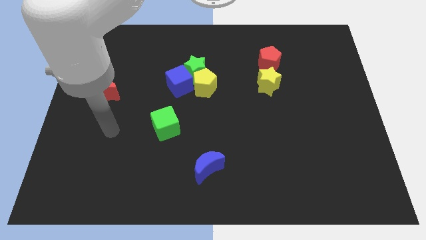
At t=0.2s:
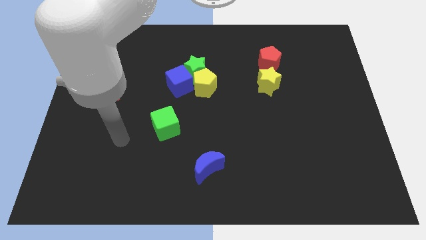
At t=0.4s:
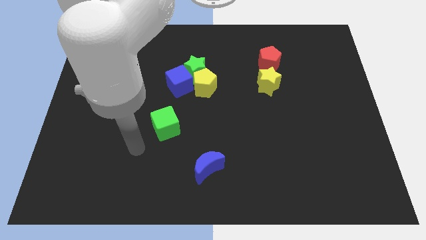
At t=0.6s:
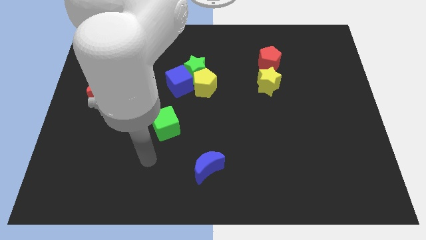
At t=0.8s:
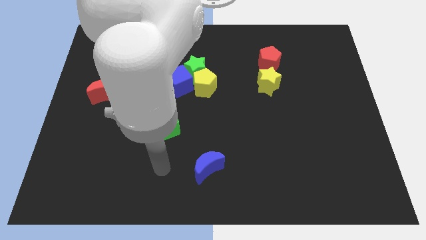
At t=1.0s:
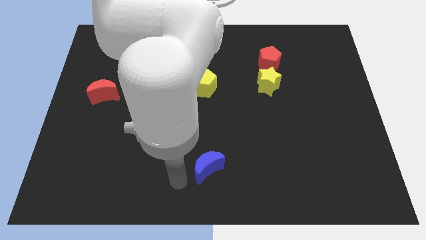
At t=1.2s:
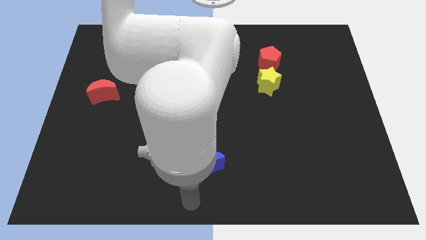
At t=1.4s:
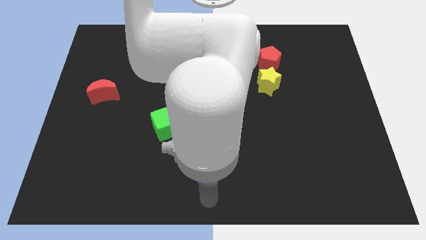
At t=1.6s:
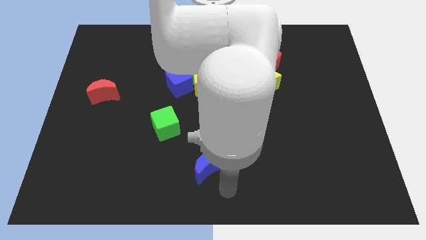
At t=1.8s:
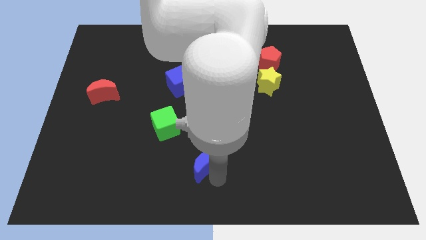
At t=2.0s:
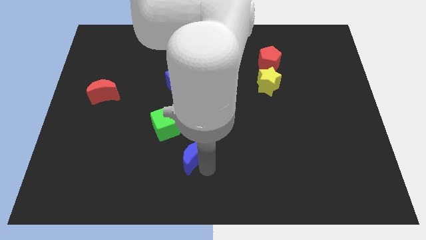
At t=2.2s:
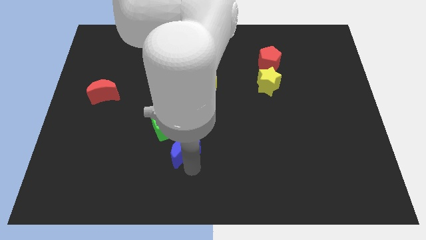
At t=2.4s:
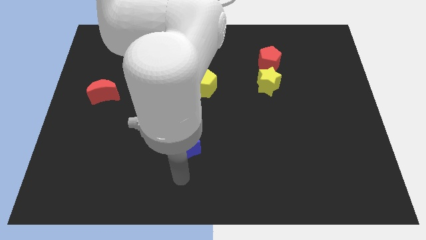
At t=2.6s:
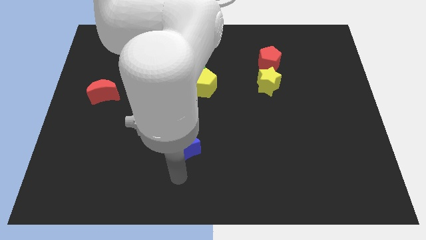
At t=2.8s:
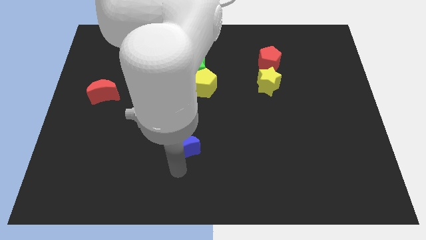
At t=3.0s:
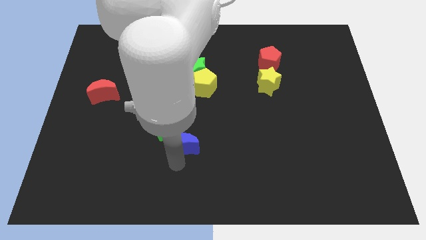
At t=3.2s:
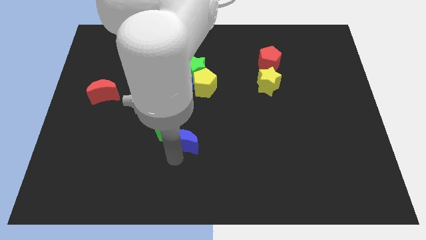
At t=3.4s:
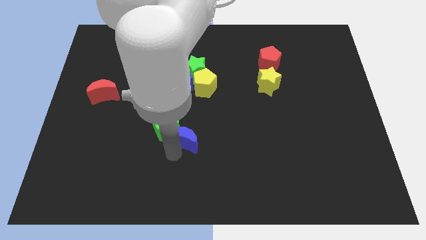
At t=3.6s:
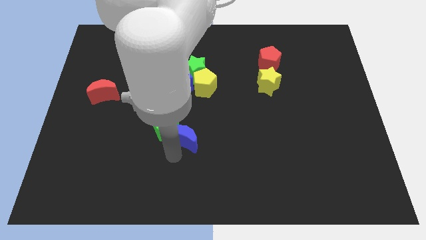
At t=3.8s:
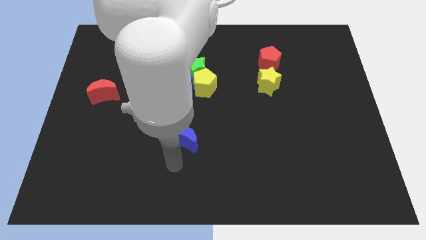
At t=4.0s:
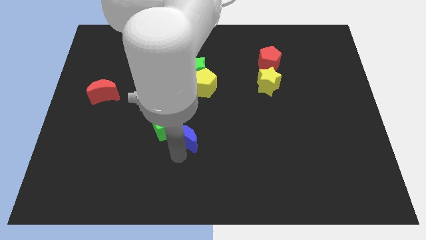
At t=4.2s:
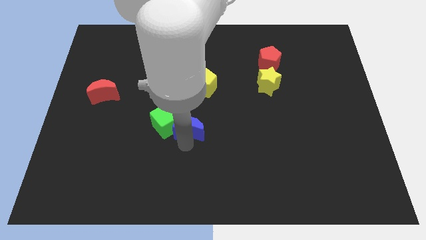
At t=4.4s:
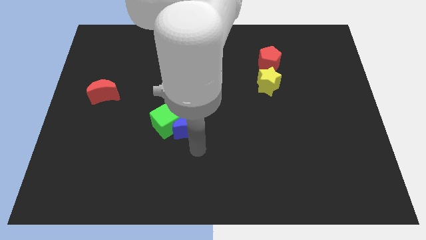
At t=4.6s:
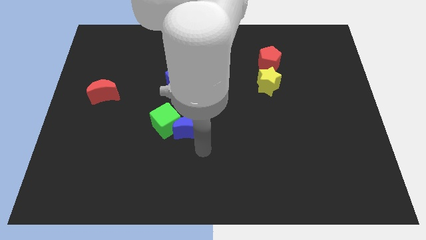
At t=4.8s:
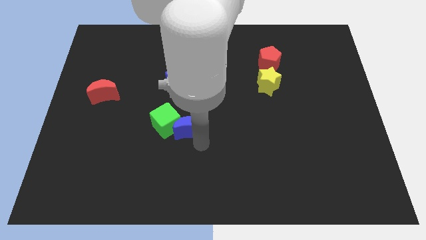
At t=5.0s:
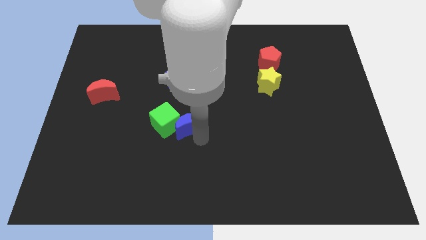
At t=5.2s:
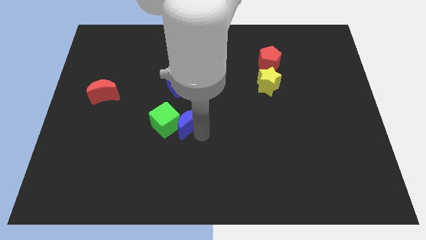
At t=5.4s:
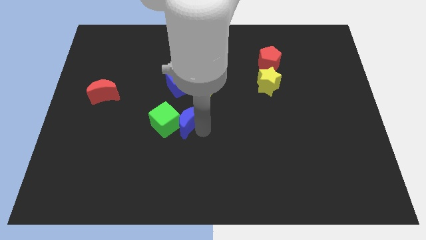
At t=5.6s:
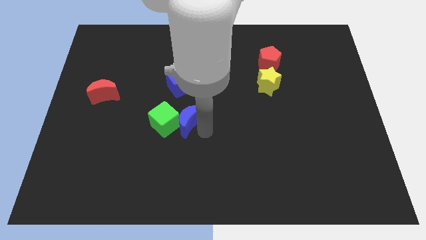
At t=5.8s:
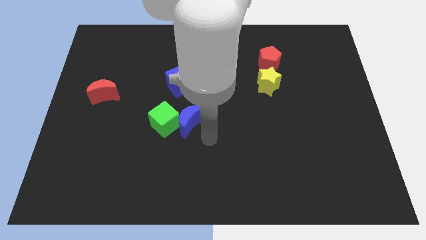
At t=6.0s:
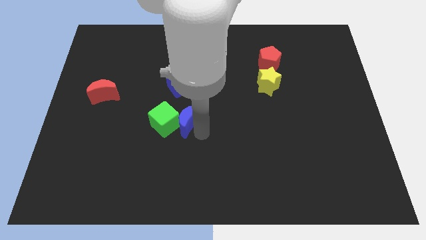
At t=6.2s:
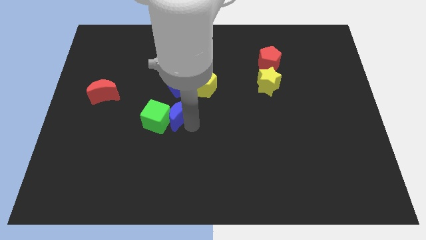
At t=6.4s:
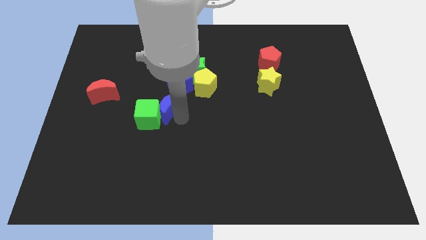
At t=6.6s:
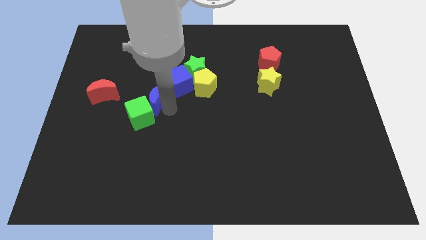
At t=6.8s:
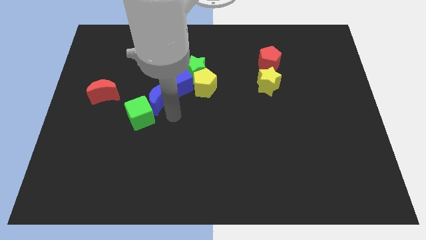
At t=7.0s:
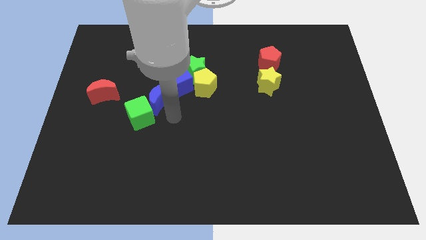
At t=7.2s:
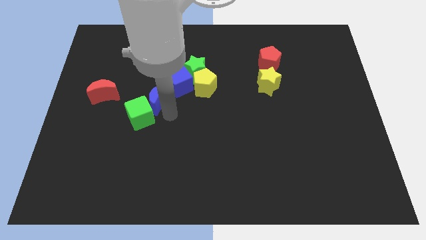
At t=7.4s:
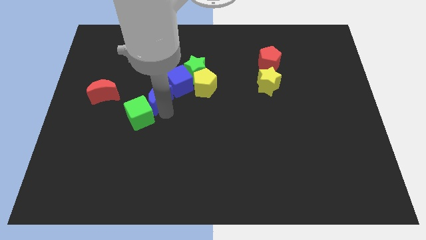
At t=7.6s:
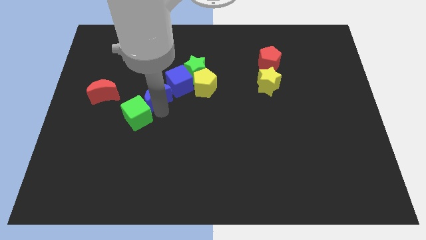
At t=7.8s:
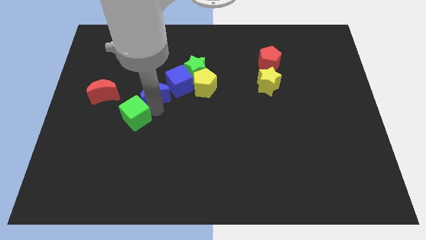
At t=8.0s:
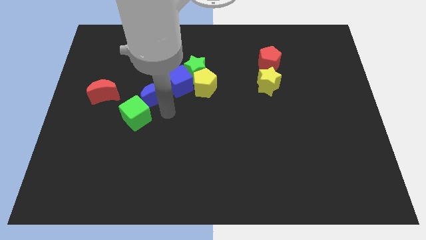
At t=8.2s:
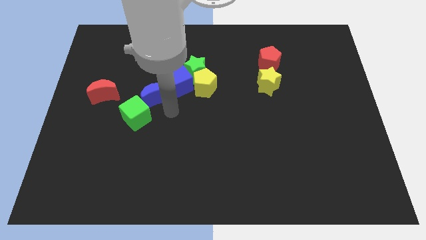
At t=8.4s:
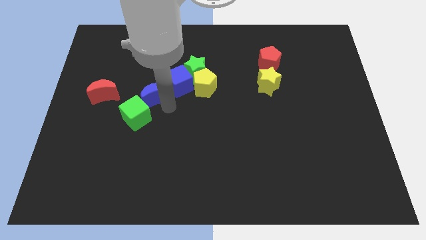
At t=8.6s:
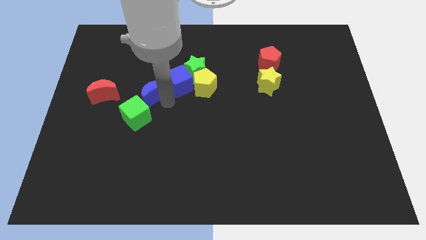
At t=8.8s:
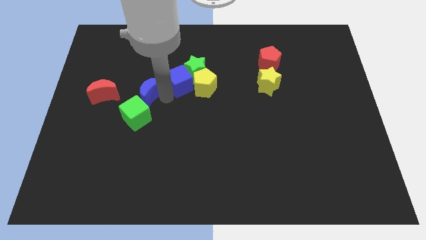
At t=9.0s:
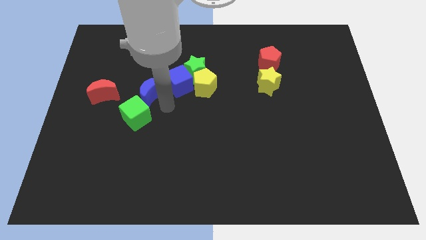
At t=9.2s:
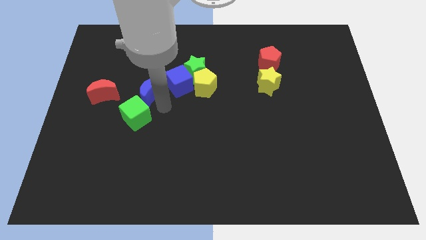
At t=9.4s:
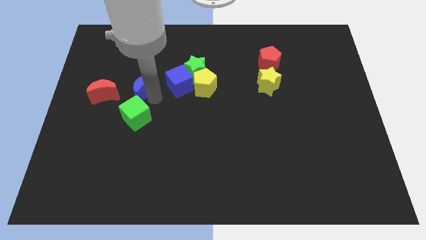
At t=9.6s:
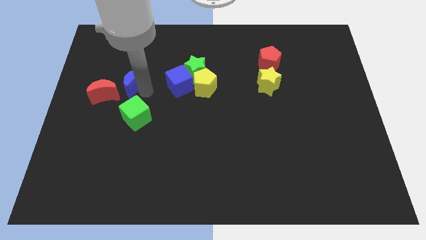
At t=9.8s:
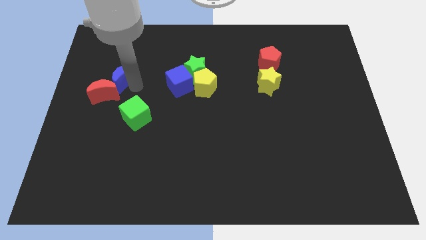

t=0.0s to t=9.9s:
put the blue moon above the red moon

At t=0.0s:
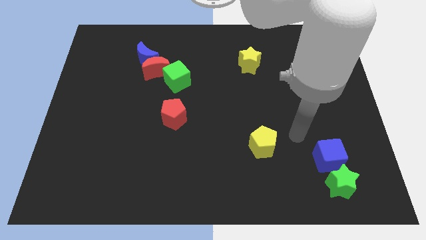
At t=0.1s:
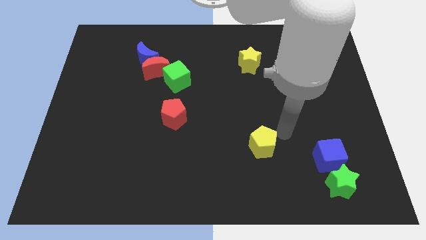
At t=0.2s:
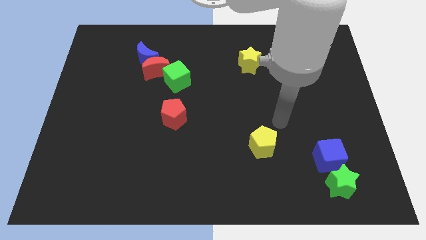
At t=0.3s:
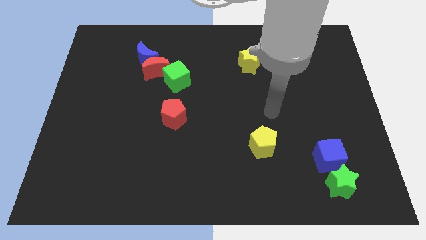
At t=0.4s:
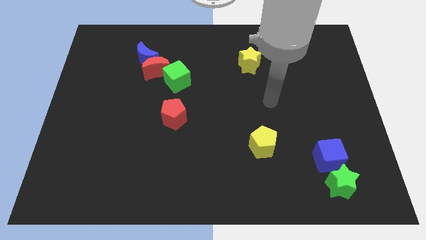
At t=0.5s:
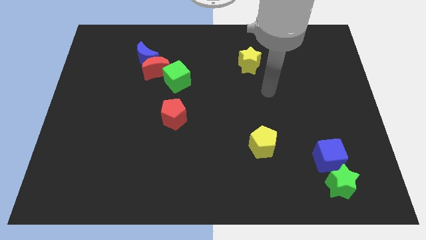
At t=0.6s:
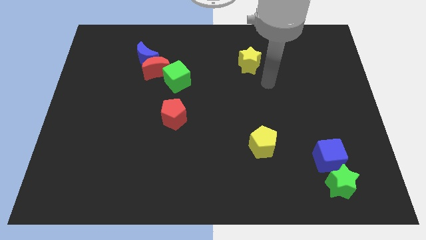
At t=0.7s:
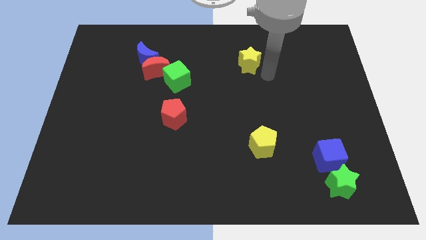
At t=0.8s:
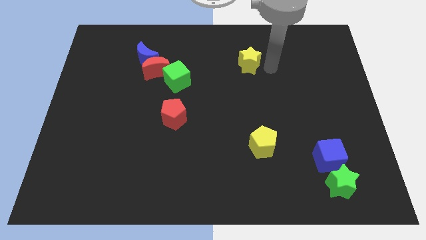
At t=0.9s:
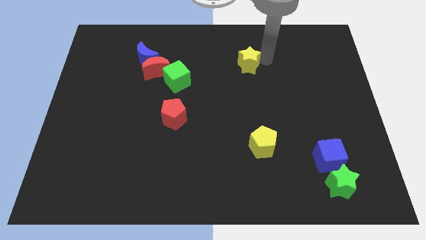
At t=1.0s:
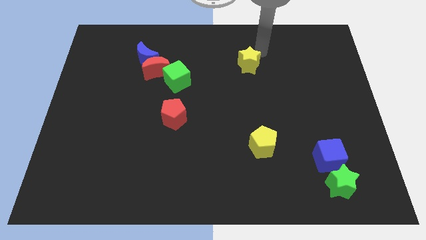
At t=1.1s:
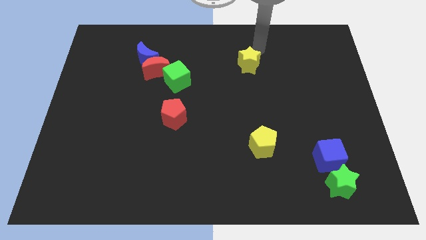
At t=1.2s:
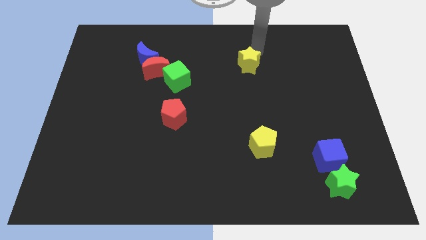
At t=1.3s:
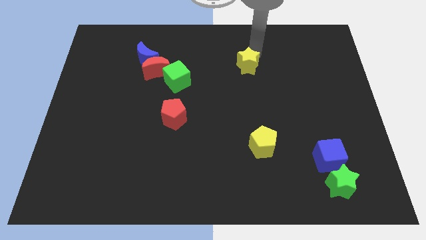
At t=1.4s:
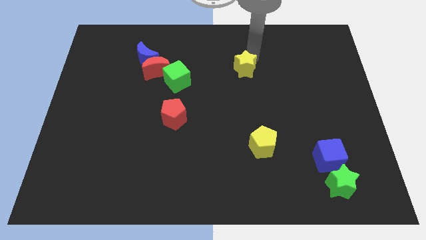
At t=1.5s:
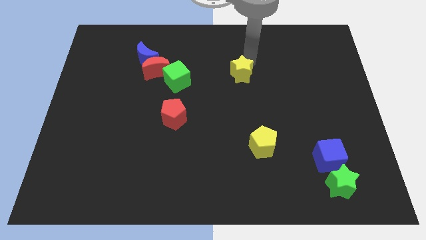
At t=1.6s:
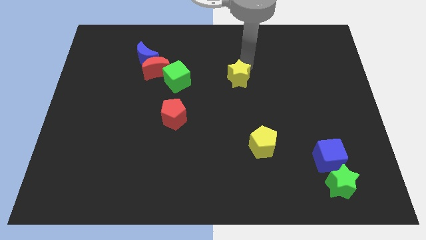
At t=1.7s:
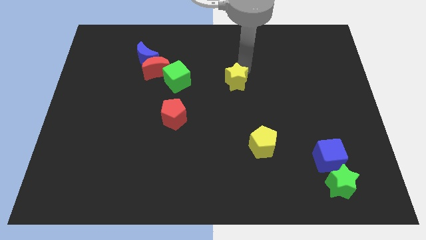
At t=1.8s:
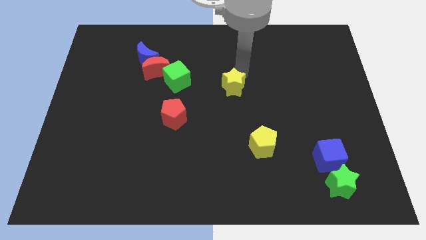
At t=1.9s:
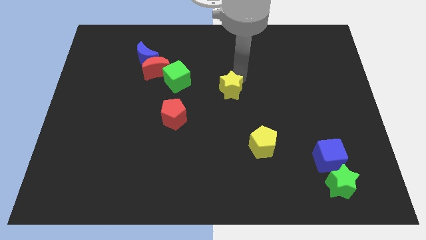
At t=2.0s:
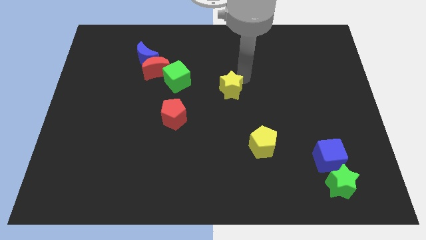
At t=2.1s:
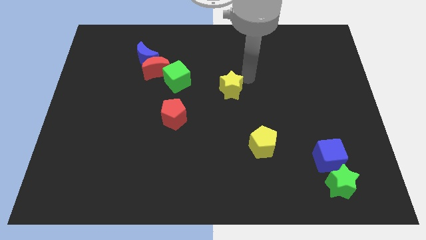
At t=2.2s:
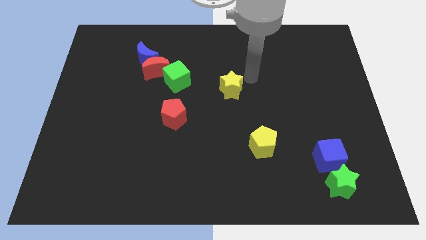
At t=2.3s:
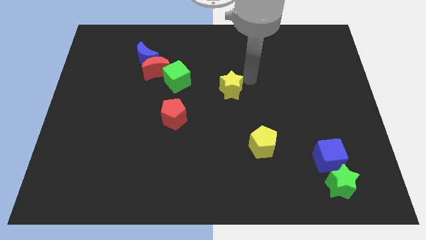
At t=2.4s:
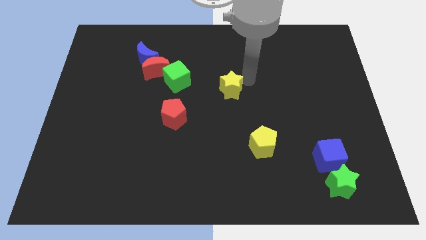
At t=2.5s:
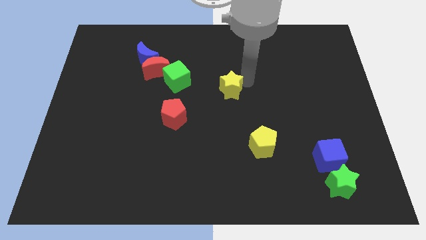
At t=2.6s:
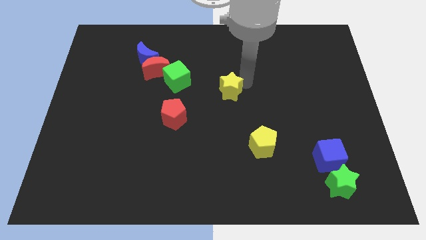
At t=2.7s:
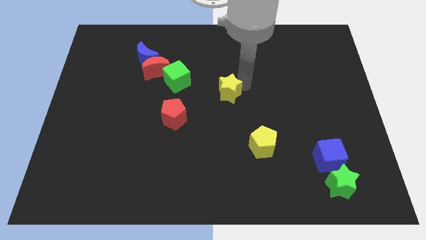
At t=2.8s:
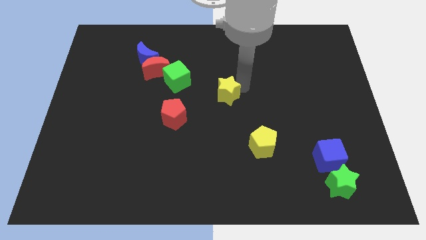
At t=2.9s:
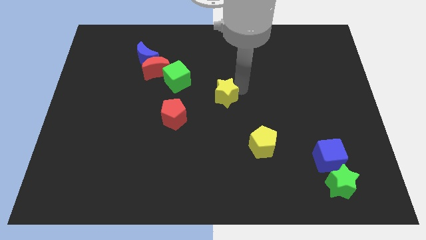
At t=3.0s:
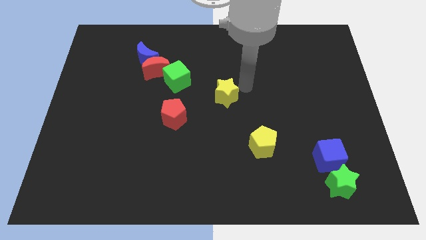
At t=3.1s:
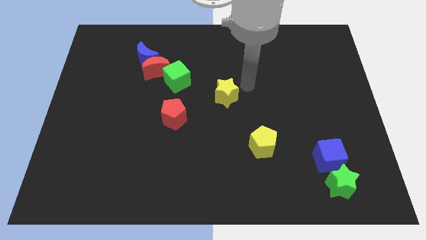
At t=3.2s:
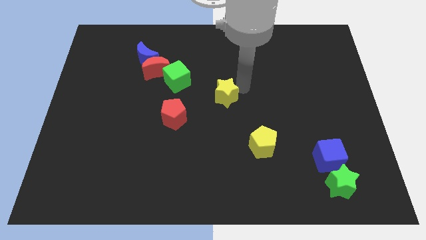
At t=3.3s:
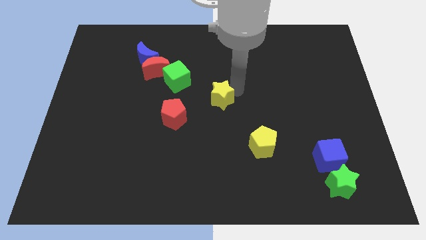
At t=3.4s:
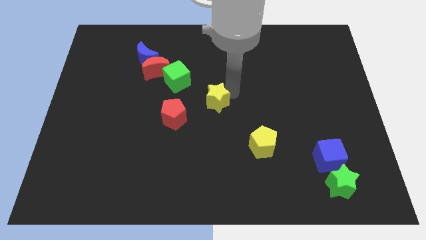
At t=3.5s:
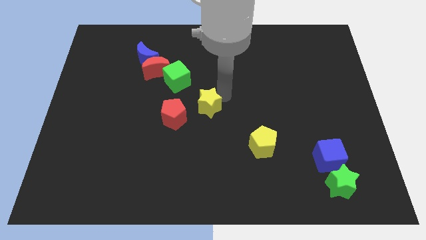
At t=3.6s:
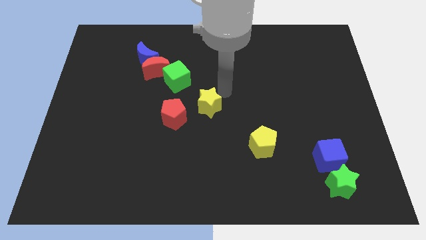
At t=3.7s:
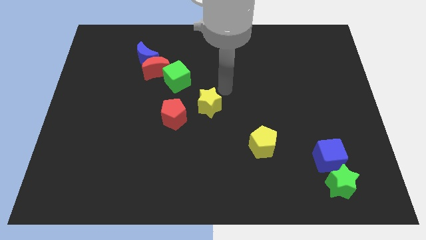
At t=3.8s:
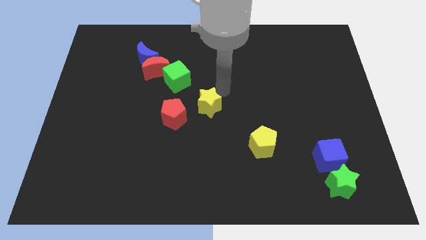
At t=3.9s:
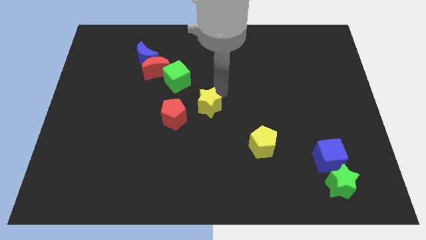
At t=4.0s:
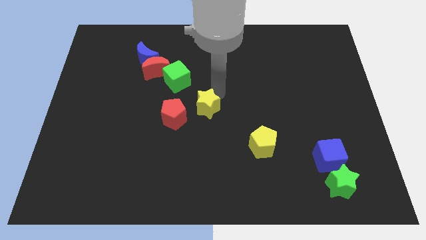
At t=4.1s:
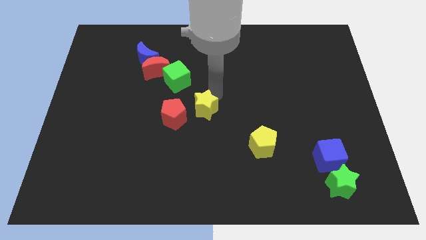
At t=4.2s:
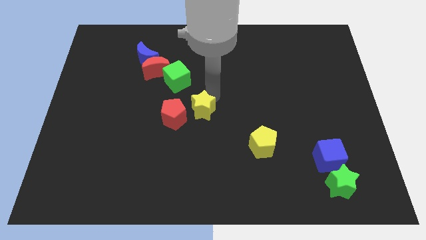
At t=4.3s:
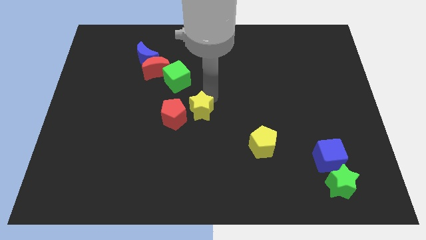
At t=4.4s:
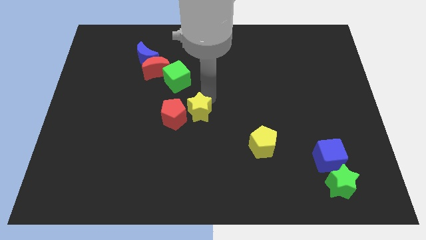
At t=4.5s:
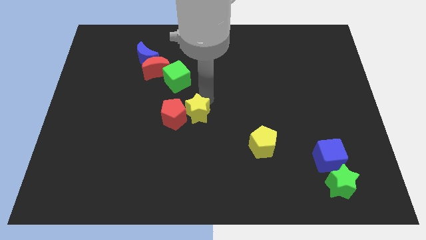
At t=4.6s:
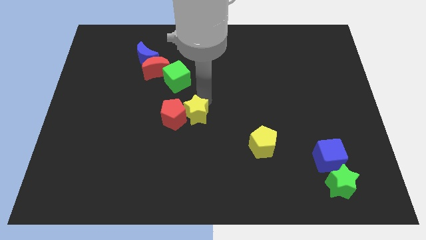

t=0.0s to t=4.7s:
push the yellow star to the bottom side of the green cube
